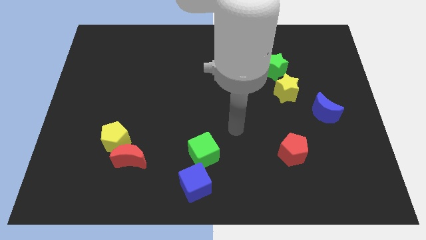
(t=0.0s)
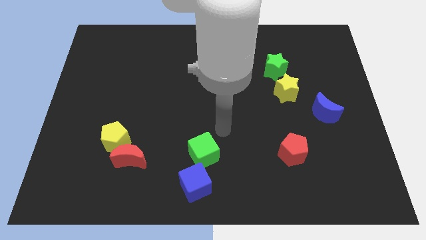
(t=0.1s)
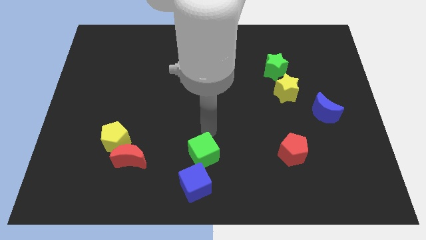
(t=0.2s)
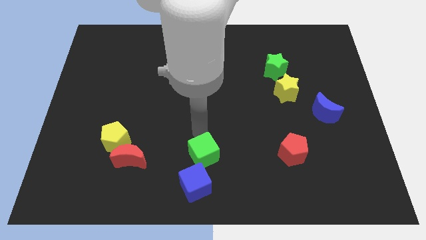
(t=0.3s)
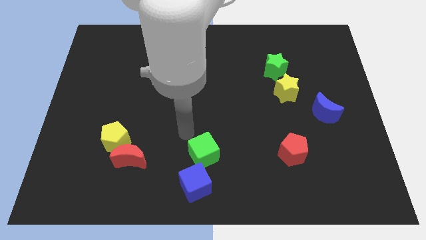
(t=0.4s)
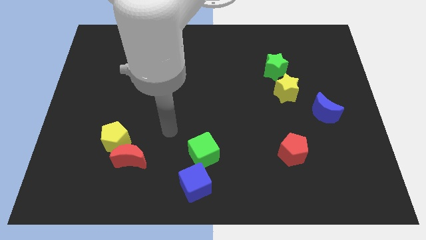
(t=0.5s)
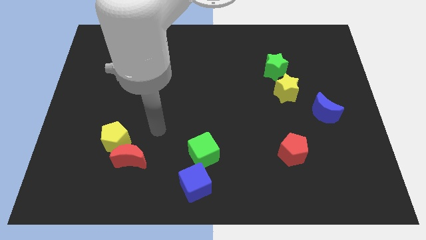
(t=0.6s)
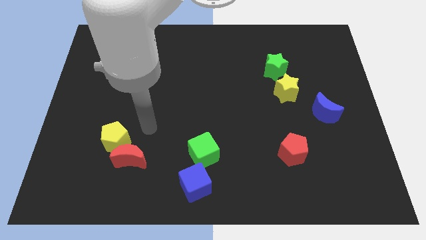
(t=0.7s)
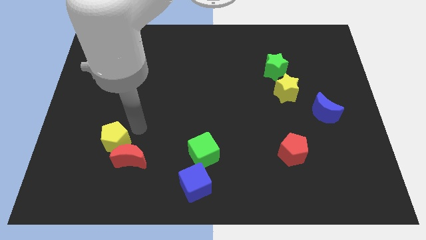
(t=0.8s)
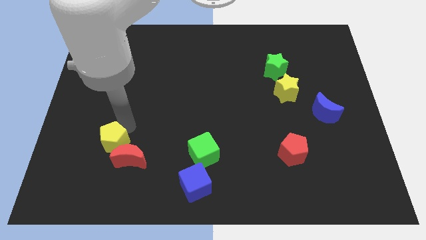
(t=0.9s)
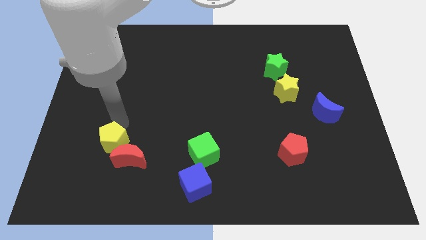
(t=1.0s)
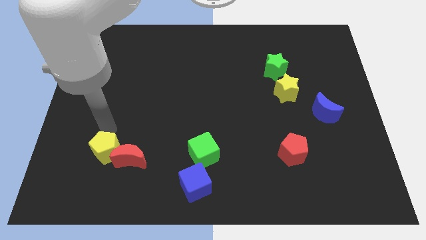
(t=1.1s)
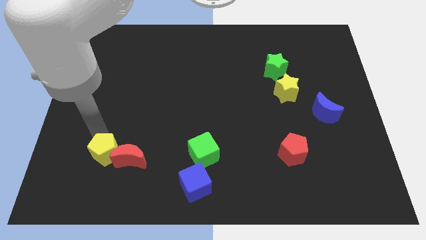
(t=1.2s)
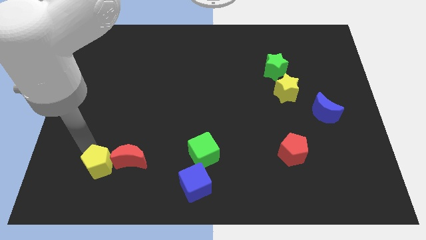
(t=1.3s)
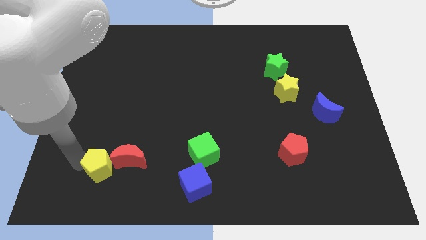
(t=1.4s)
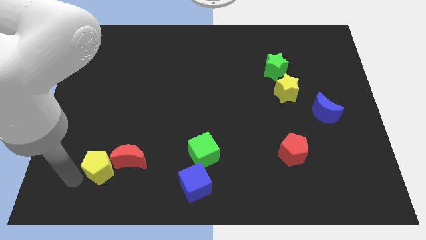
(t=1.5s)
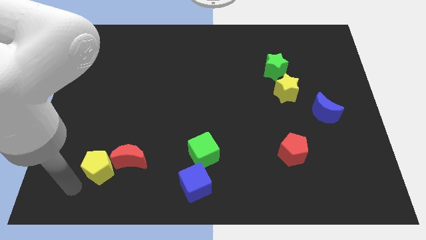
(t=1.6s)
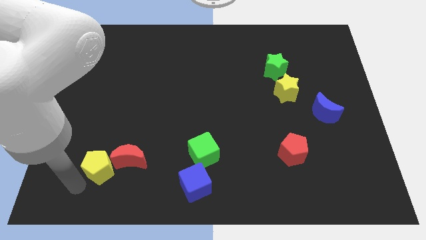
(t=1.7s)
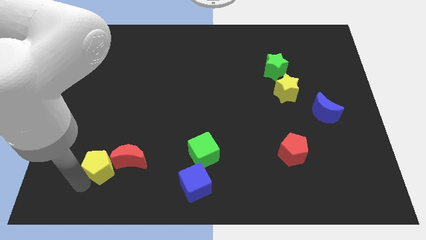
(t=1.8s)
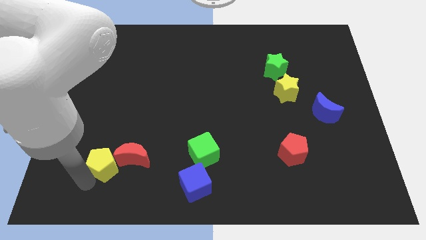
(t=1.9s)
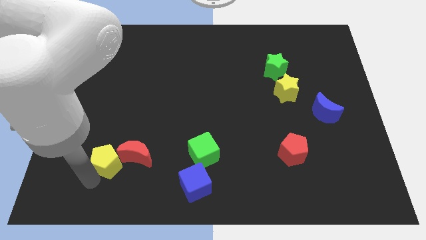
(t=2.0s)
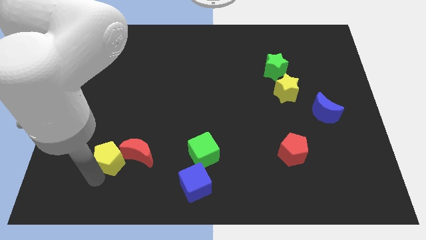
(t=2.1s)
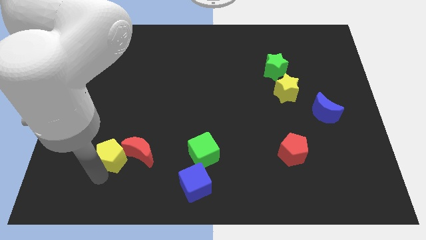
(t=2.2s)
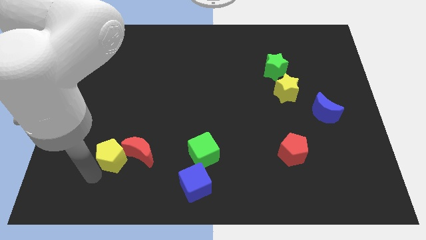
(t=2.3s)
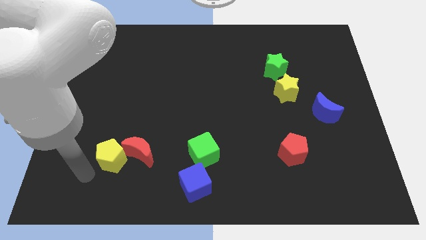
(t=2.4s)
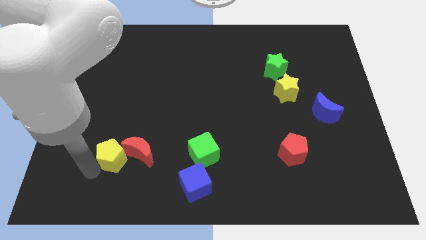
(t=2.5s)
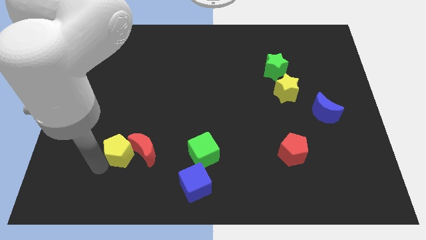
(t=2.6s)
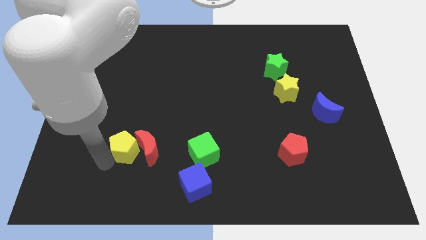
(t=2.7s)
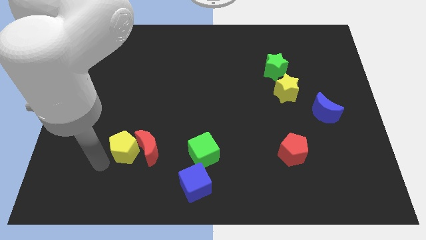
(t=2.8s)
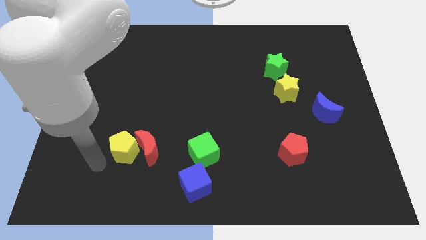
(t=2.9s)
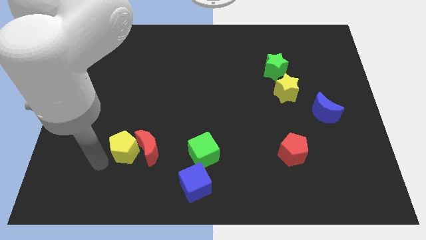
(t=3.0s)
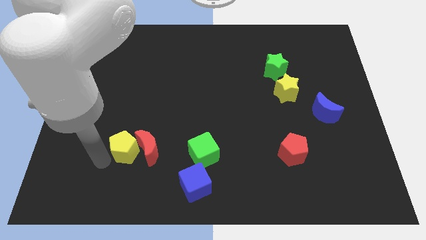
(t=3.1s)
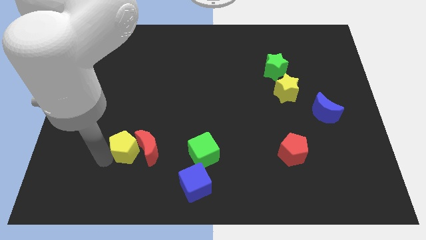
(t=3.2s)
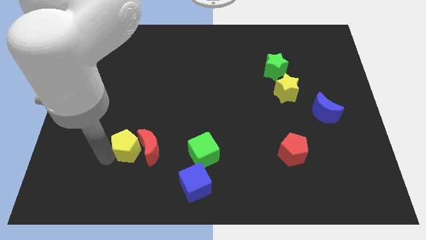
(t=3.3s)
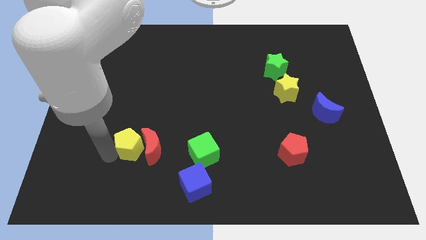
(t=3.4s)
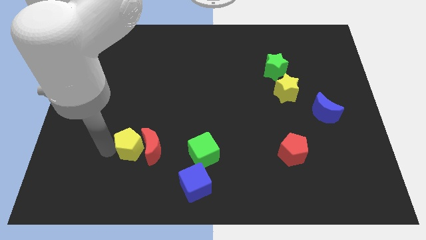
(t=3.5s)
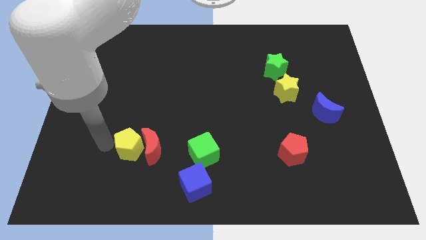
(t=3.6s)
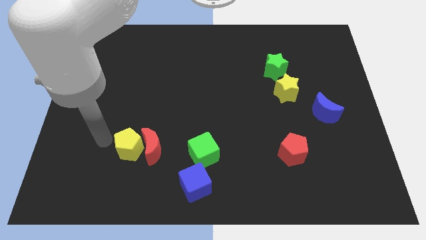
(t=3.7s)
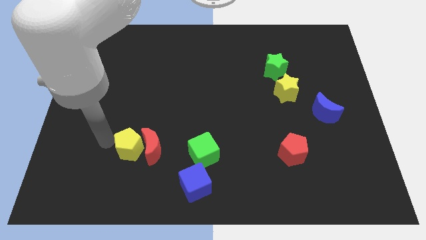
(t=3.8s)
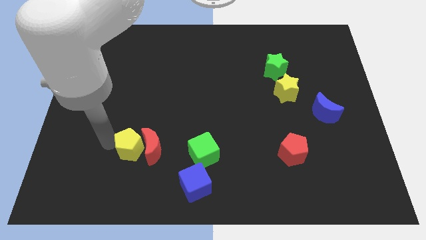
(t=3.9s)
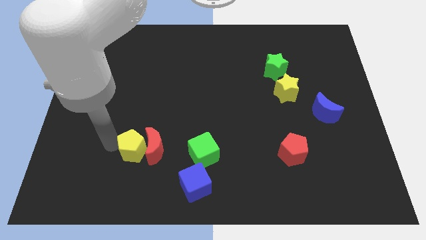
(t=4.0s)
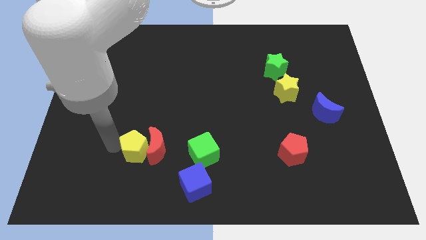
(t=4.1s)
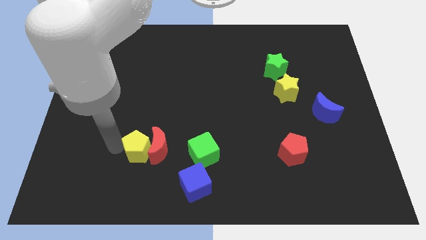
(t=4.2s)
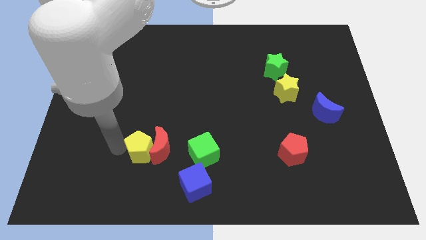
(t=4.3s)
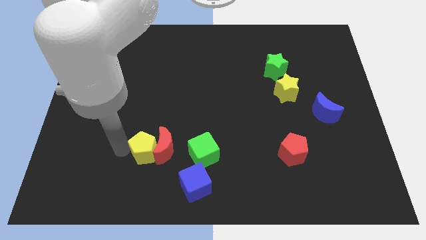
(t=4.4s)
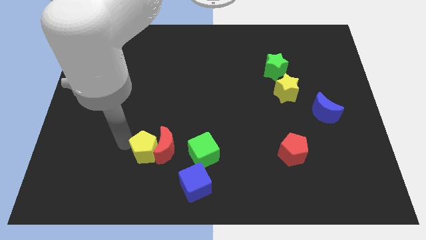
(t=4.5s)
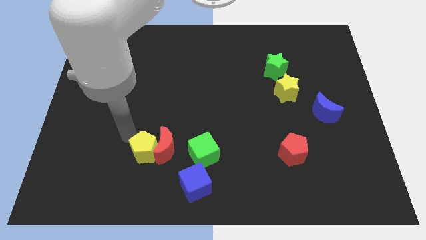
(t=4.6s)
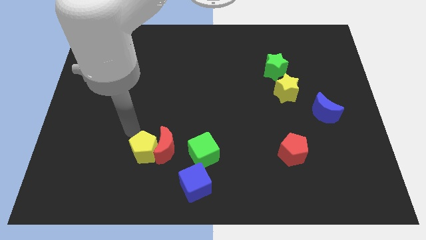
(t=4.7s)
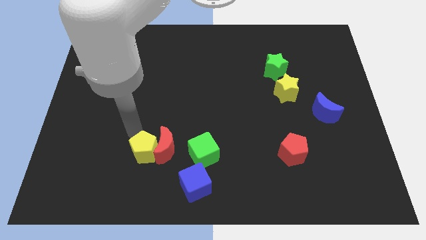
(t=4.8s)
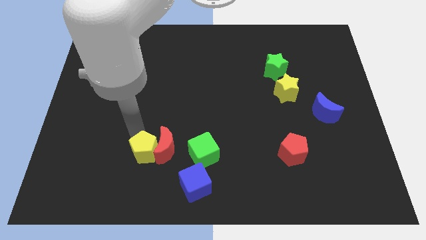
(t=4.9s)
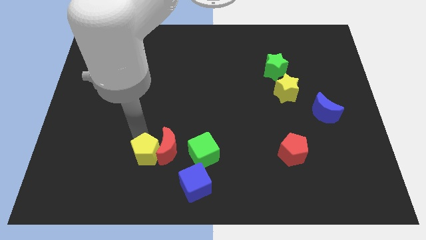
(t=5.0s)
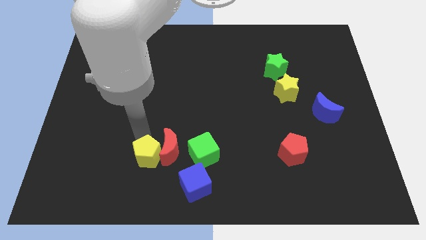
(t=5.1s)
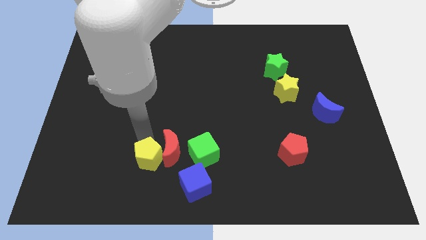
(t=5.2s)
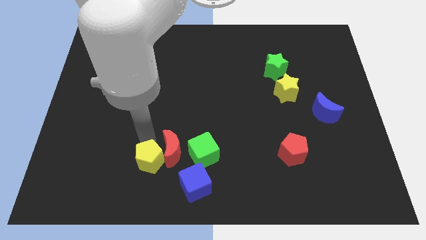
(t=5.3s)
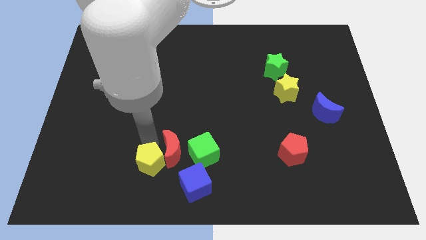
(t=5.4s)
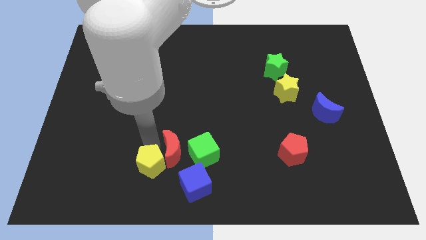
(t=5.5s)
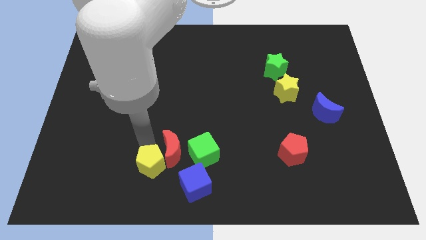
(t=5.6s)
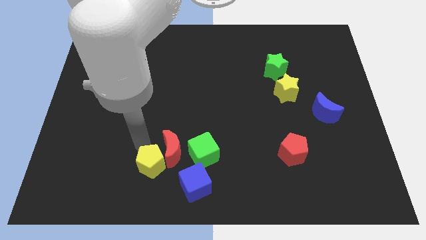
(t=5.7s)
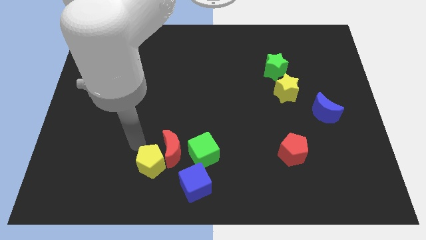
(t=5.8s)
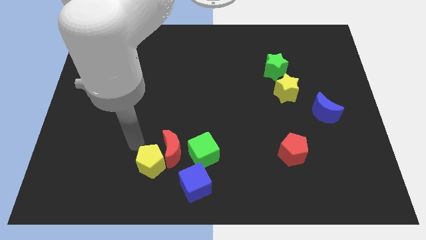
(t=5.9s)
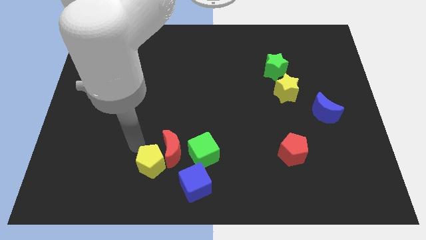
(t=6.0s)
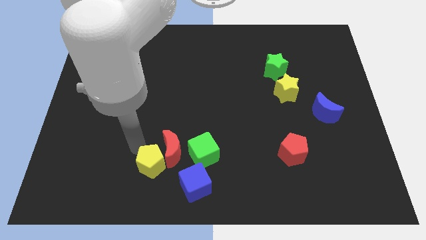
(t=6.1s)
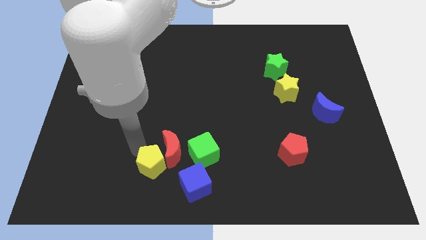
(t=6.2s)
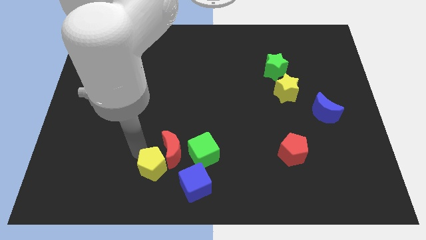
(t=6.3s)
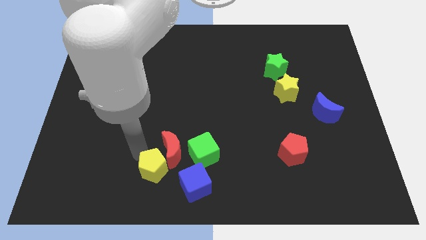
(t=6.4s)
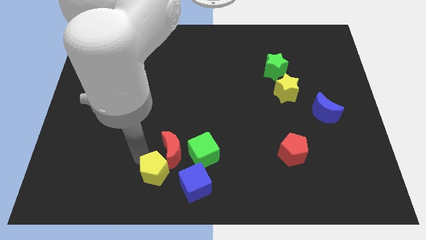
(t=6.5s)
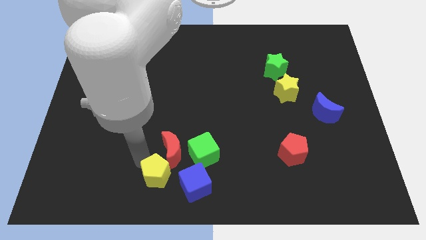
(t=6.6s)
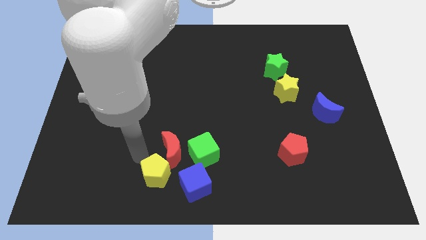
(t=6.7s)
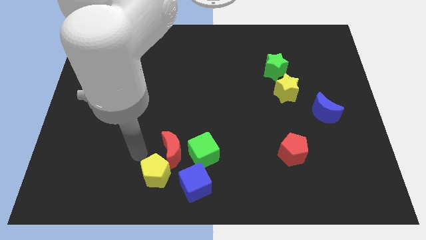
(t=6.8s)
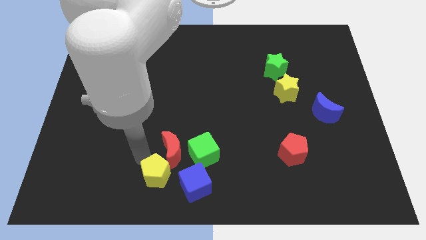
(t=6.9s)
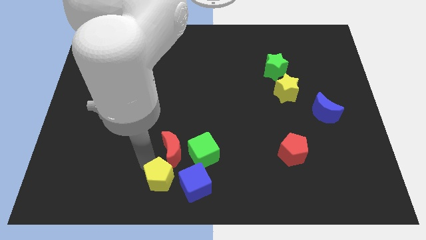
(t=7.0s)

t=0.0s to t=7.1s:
slide the yellow pentagon to the bottom
